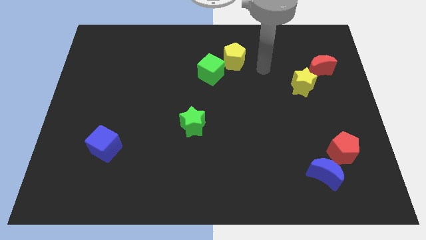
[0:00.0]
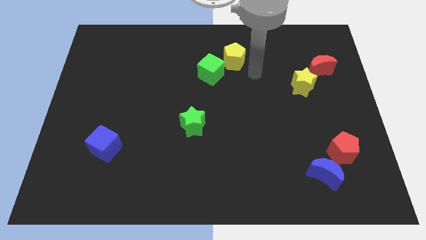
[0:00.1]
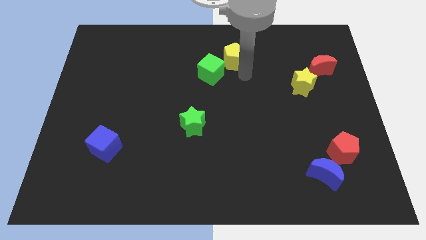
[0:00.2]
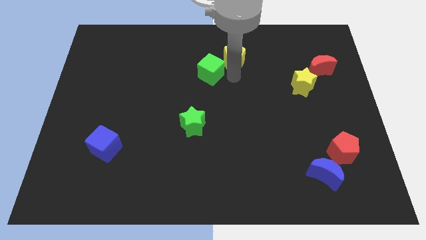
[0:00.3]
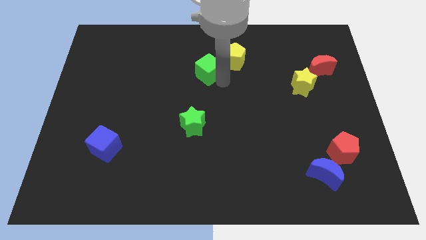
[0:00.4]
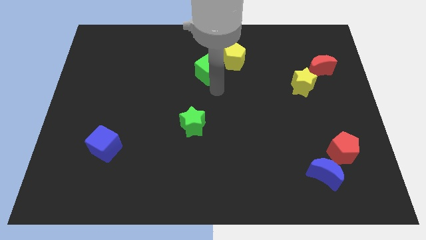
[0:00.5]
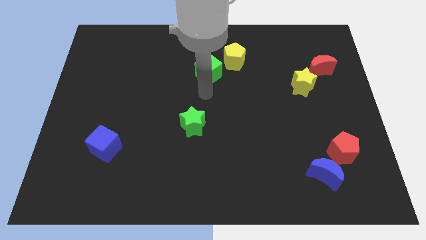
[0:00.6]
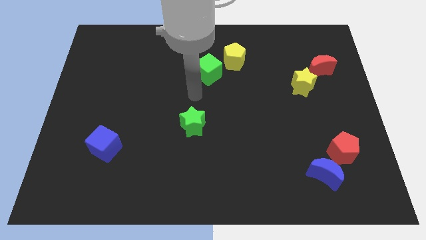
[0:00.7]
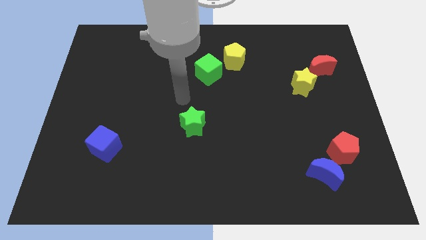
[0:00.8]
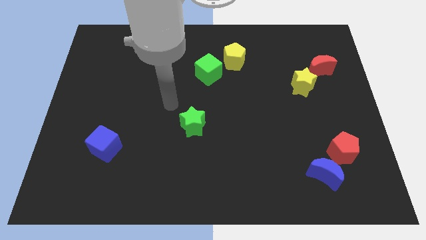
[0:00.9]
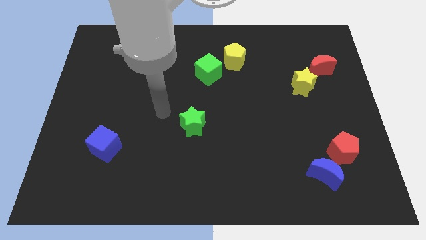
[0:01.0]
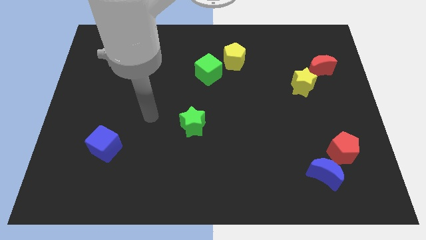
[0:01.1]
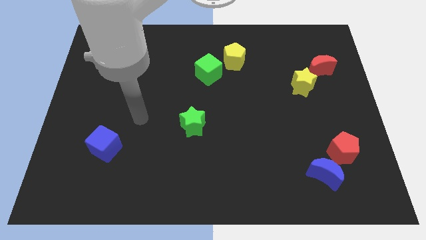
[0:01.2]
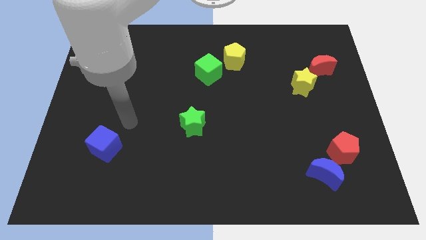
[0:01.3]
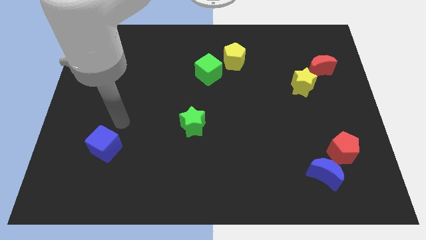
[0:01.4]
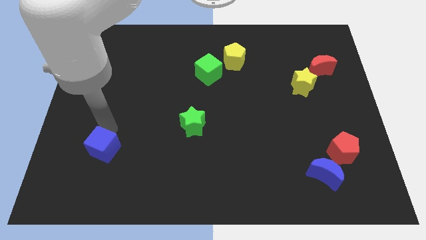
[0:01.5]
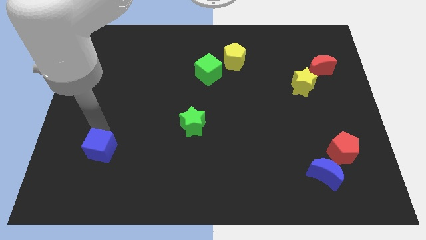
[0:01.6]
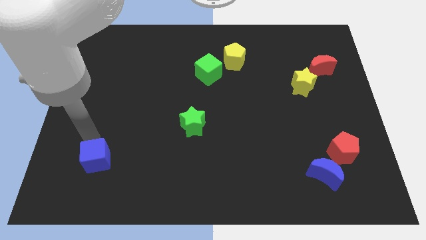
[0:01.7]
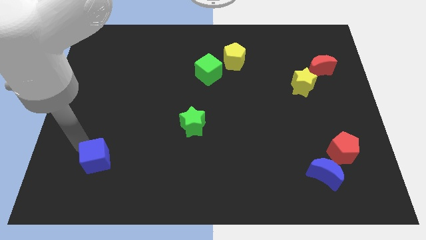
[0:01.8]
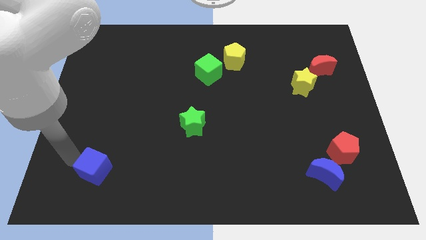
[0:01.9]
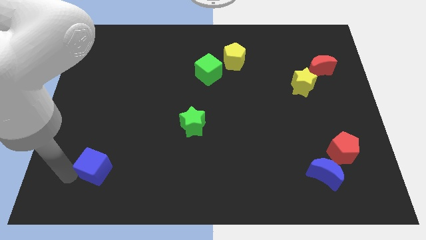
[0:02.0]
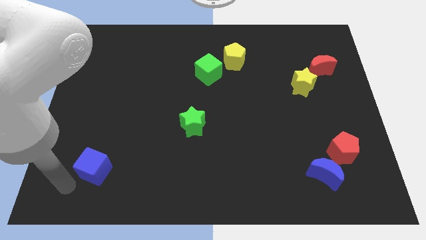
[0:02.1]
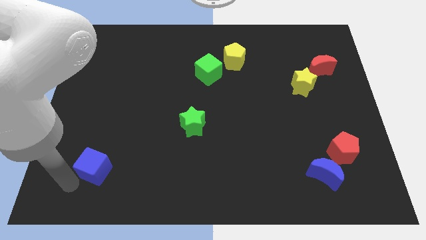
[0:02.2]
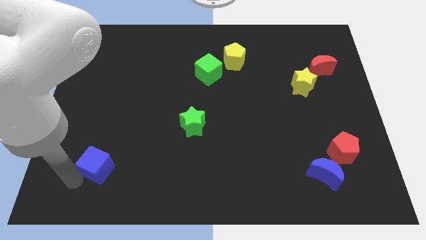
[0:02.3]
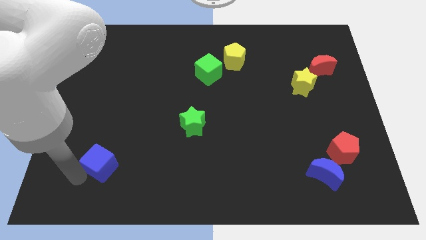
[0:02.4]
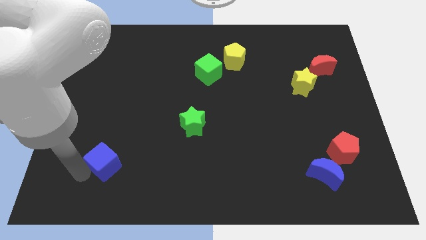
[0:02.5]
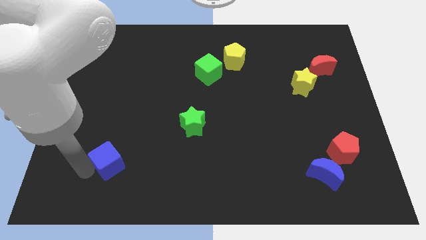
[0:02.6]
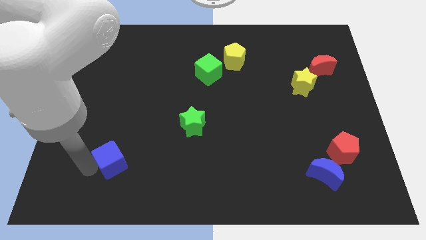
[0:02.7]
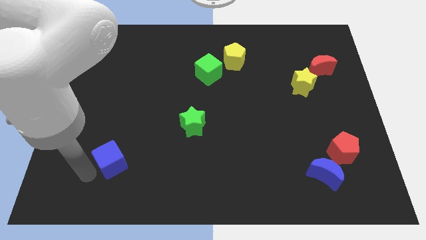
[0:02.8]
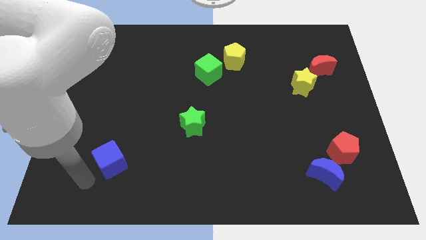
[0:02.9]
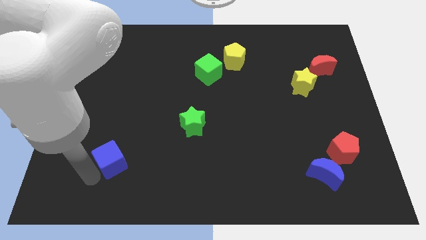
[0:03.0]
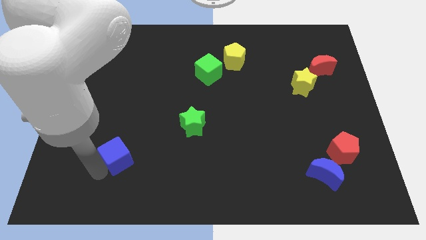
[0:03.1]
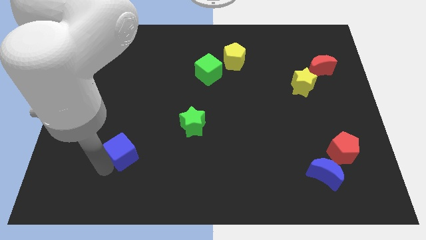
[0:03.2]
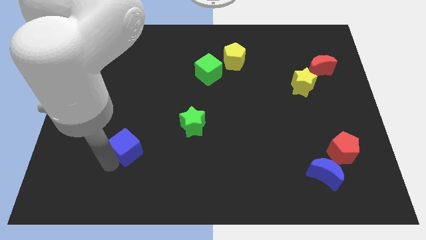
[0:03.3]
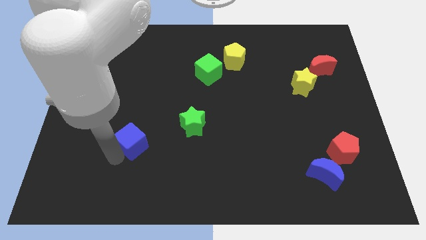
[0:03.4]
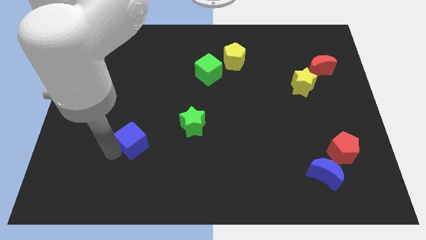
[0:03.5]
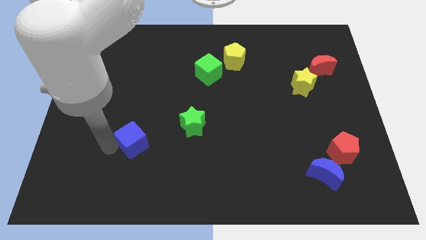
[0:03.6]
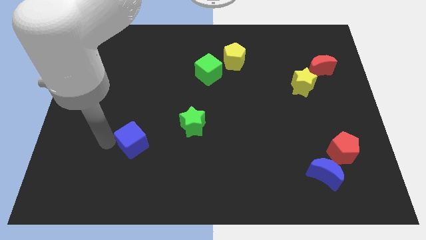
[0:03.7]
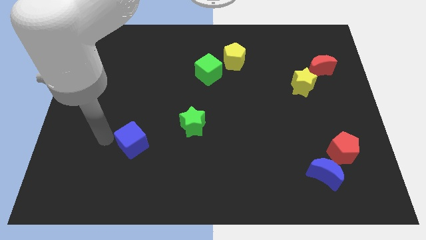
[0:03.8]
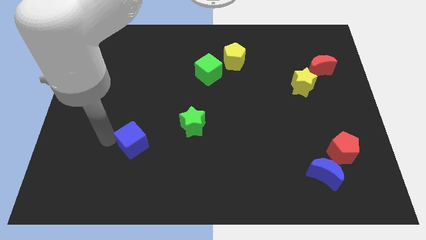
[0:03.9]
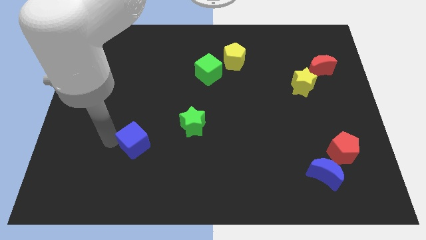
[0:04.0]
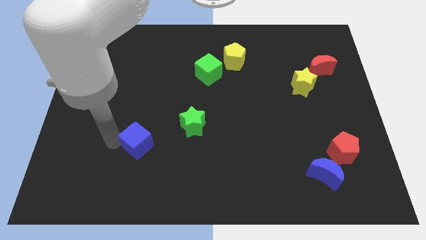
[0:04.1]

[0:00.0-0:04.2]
slightly push the blue cube to the right

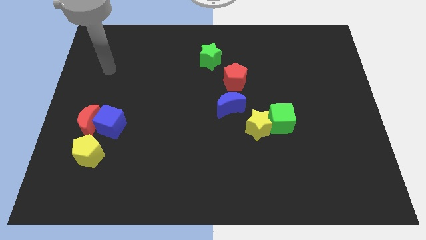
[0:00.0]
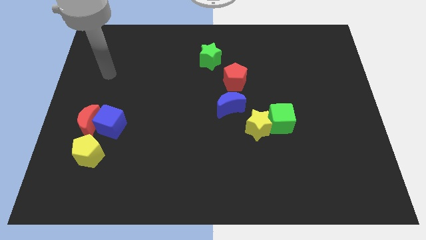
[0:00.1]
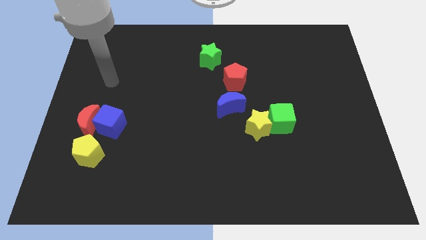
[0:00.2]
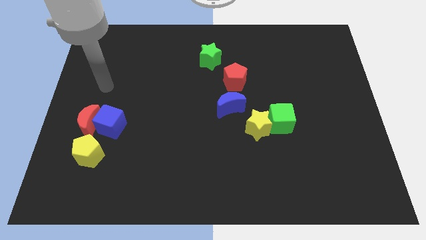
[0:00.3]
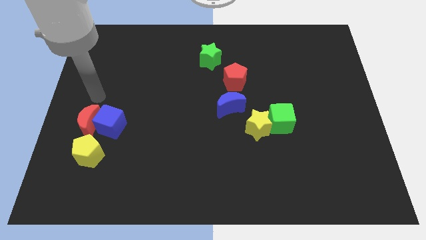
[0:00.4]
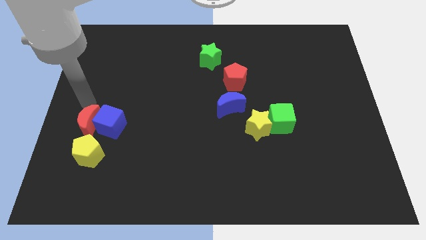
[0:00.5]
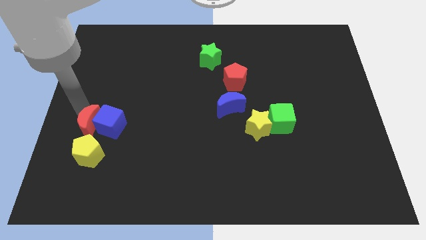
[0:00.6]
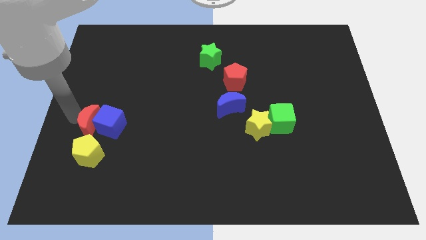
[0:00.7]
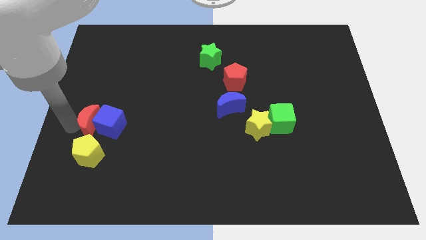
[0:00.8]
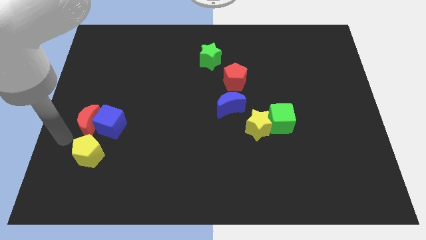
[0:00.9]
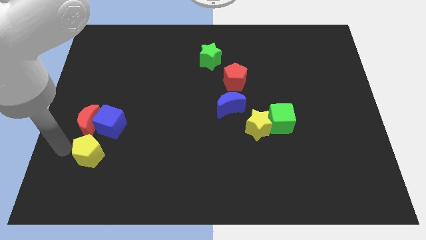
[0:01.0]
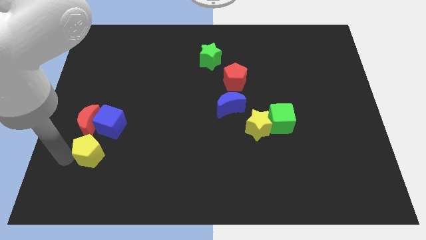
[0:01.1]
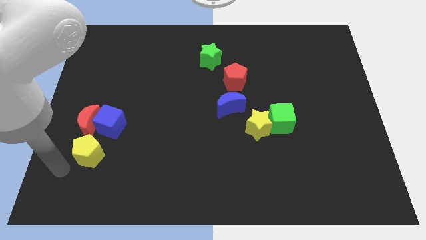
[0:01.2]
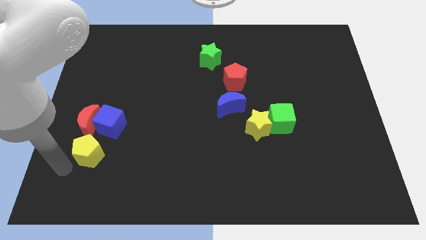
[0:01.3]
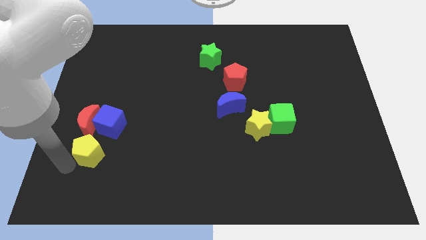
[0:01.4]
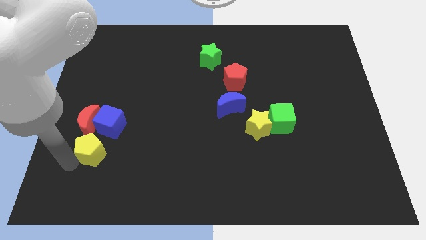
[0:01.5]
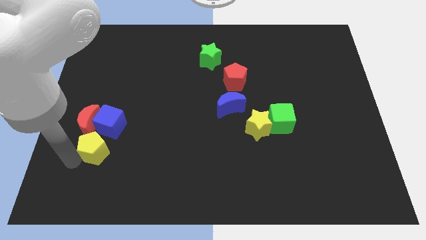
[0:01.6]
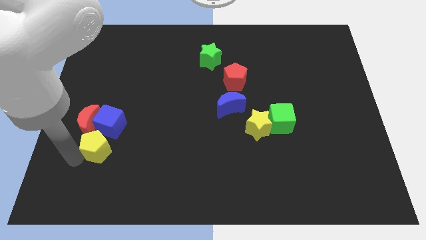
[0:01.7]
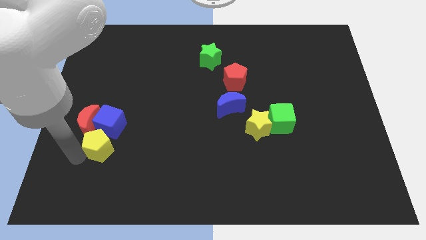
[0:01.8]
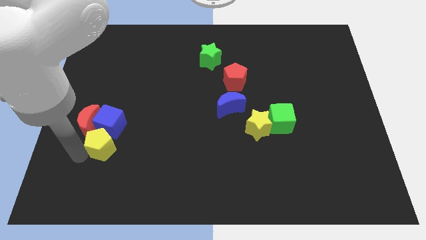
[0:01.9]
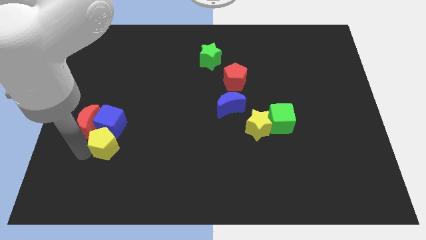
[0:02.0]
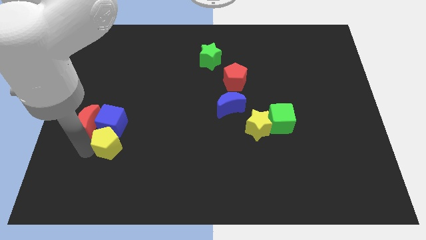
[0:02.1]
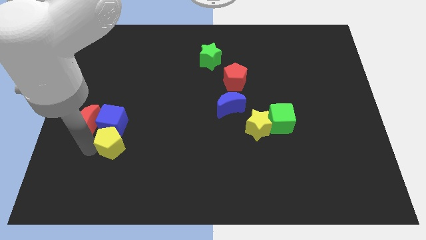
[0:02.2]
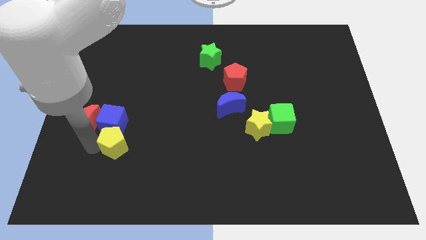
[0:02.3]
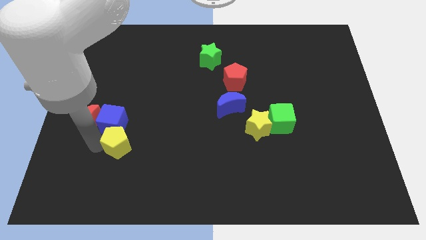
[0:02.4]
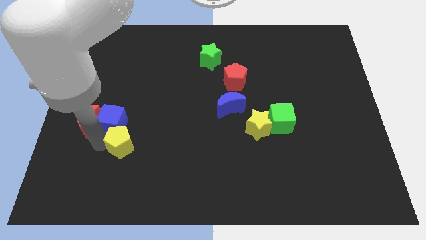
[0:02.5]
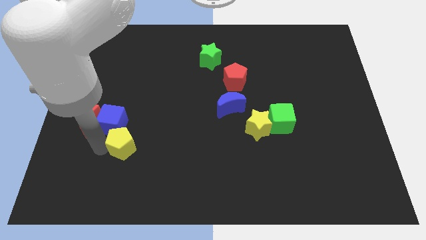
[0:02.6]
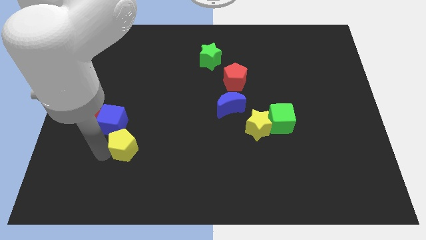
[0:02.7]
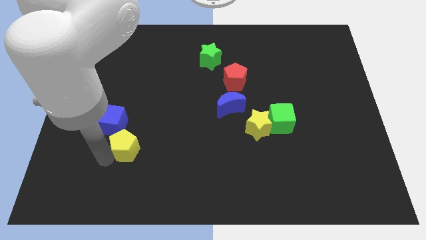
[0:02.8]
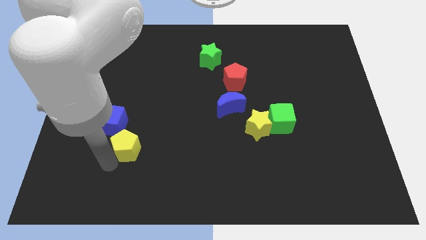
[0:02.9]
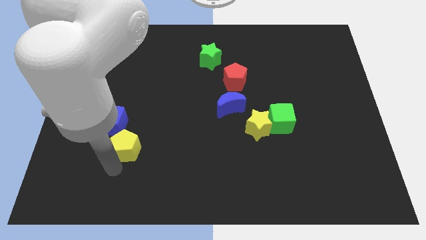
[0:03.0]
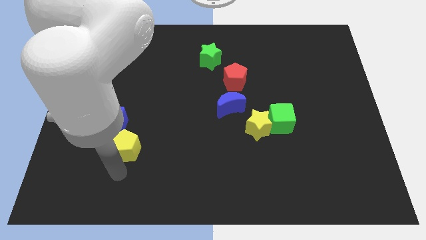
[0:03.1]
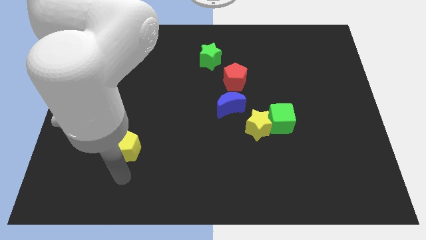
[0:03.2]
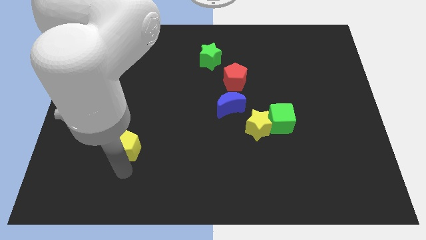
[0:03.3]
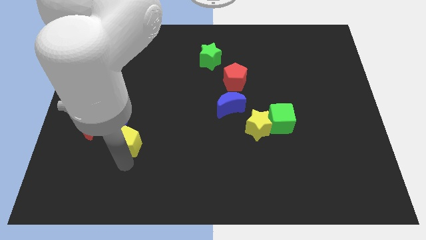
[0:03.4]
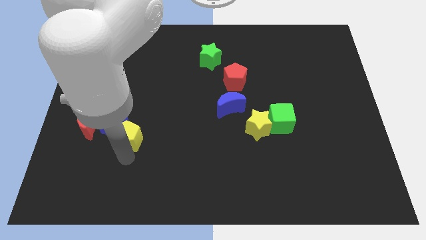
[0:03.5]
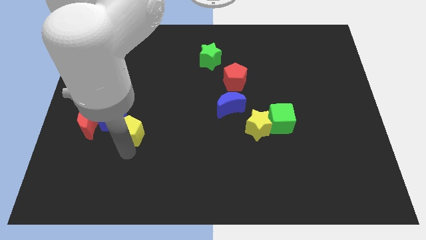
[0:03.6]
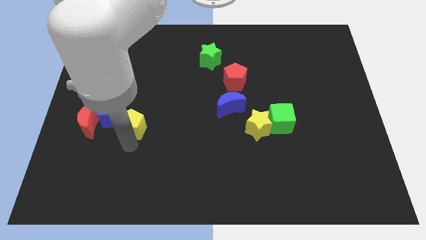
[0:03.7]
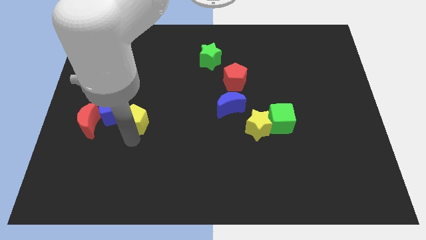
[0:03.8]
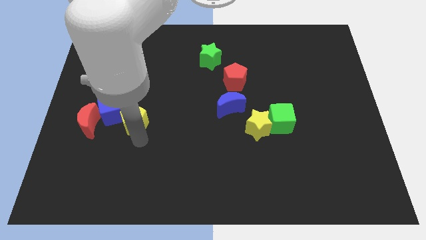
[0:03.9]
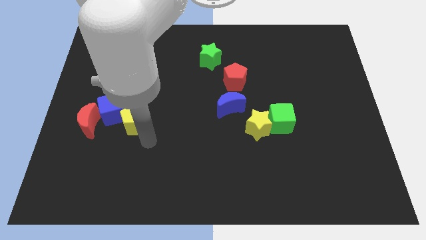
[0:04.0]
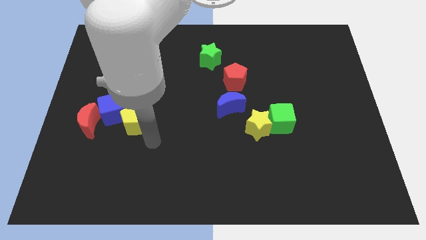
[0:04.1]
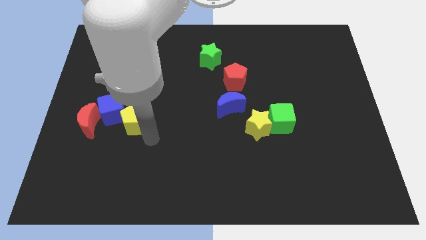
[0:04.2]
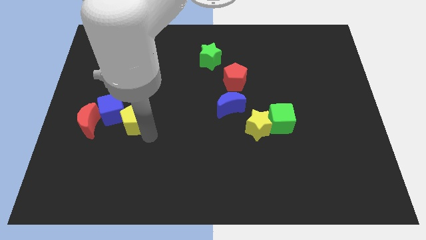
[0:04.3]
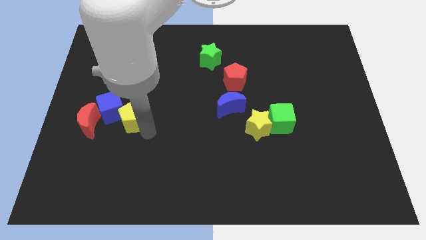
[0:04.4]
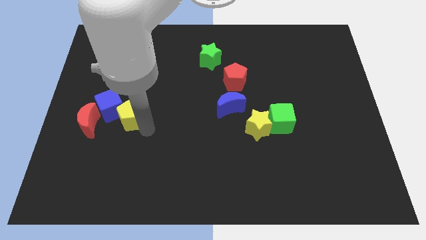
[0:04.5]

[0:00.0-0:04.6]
slightly move the yellow pentagon upwards
